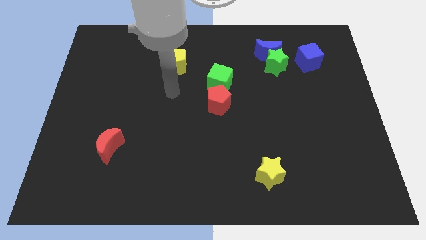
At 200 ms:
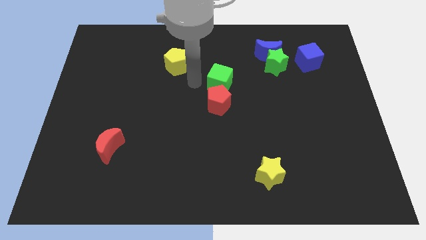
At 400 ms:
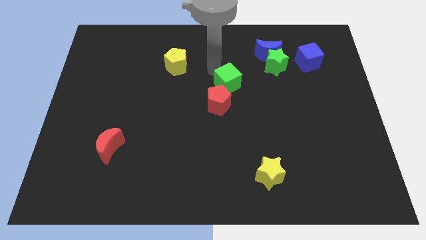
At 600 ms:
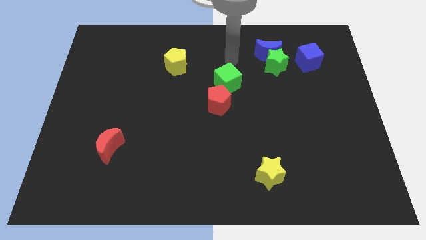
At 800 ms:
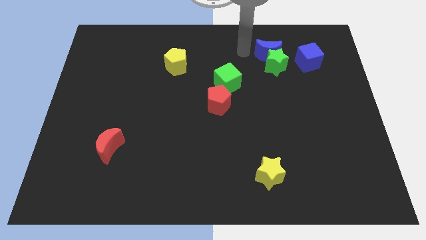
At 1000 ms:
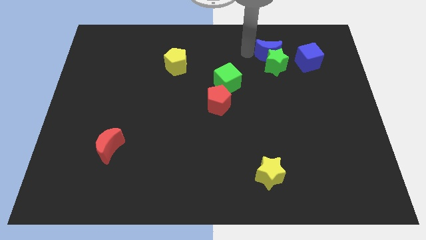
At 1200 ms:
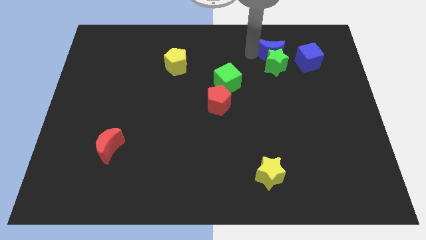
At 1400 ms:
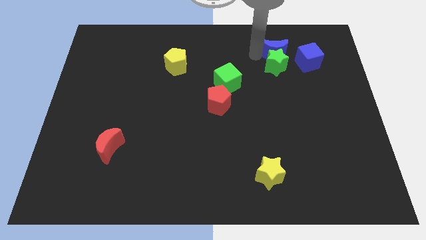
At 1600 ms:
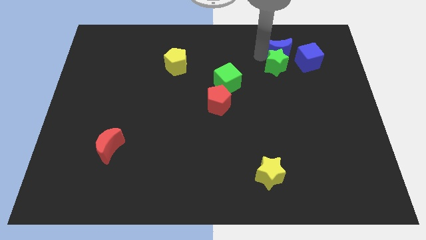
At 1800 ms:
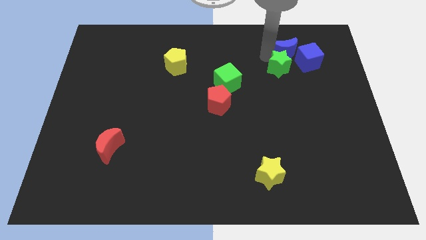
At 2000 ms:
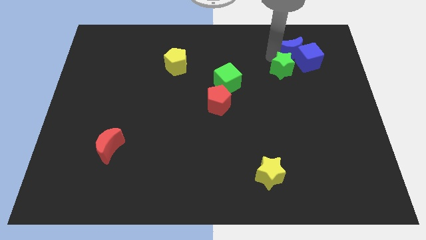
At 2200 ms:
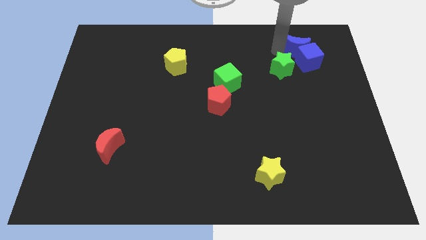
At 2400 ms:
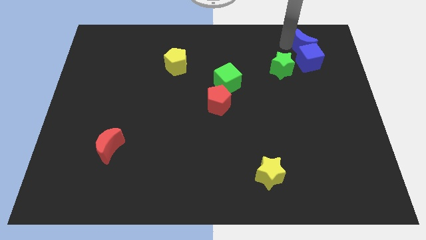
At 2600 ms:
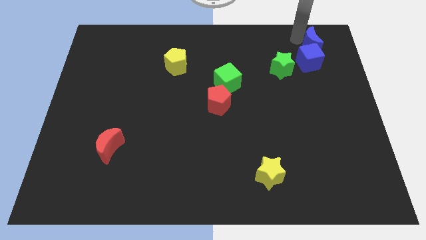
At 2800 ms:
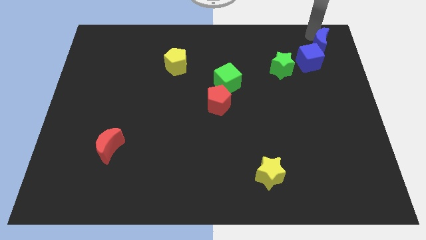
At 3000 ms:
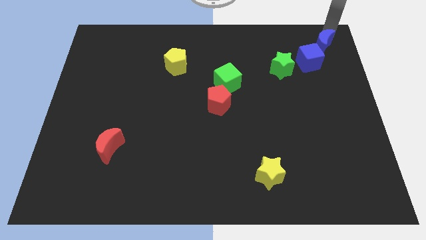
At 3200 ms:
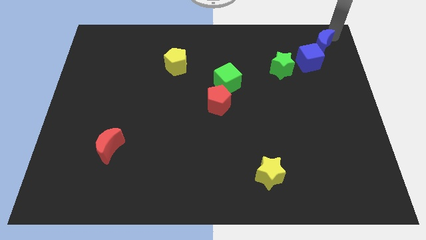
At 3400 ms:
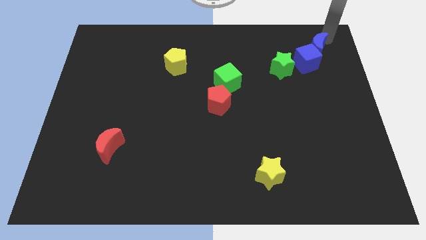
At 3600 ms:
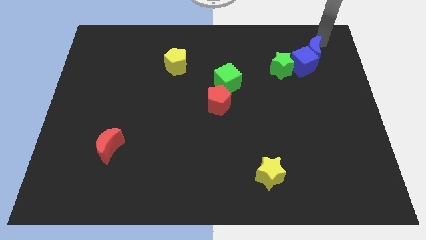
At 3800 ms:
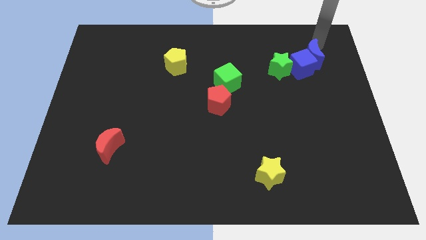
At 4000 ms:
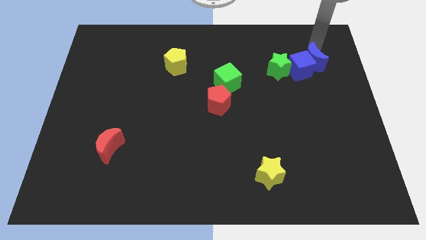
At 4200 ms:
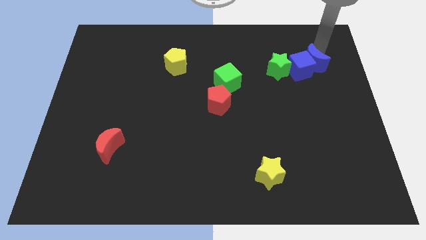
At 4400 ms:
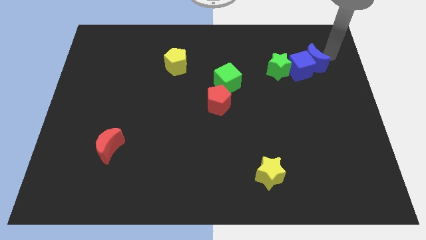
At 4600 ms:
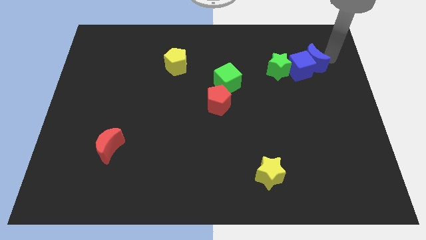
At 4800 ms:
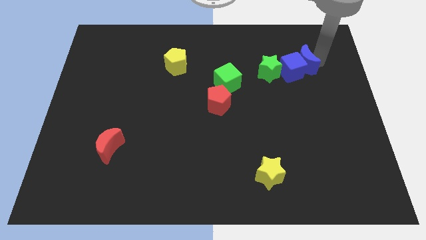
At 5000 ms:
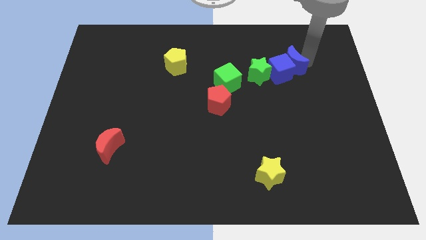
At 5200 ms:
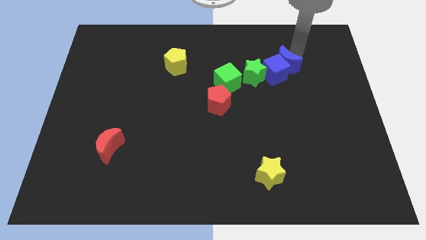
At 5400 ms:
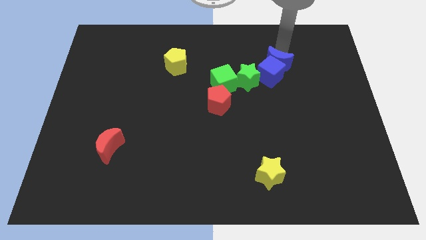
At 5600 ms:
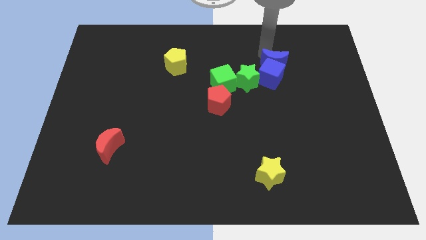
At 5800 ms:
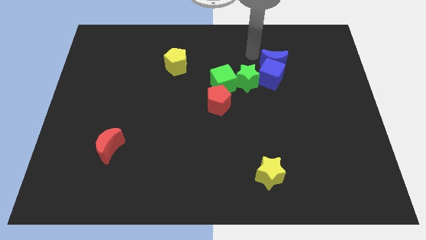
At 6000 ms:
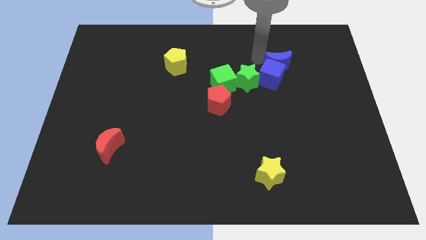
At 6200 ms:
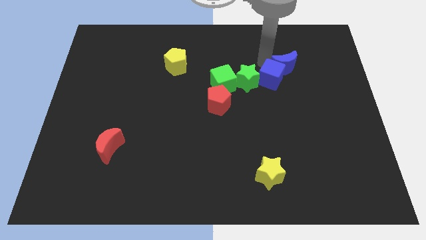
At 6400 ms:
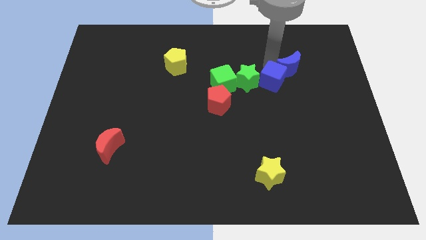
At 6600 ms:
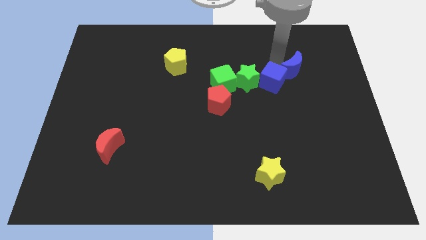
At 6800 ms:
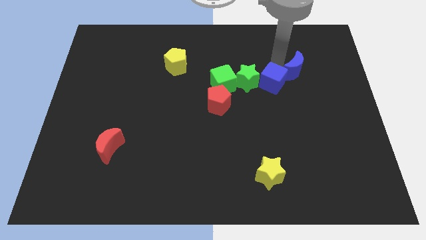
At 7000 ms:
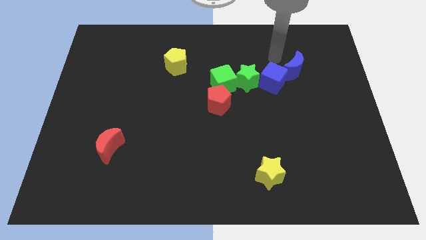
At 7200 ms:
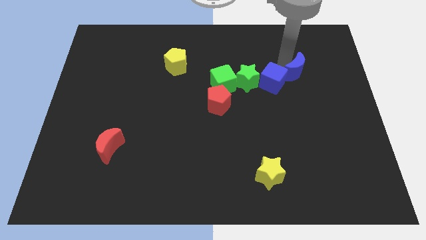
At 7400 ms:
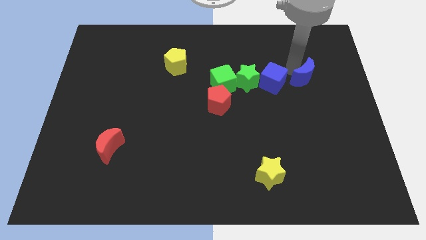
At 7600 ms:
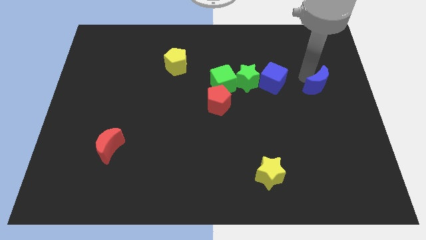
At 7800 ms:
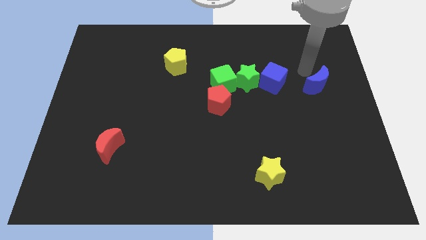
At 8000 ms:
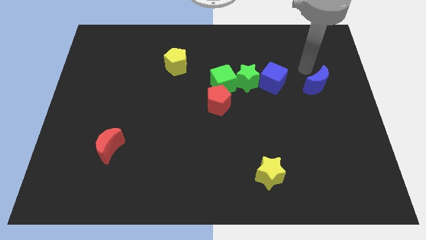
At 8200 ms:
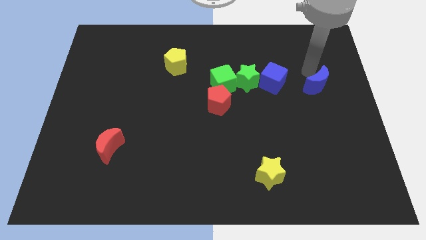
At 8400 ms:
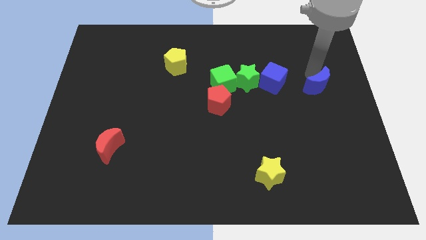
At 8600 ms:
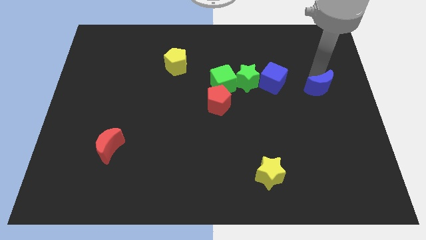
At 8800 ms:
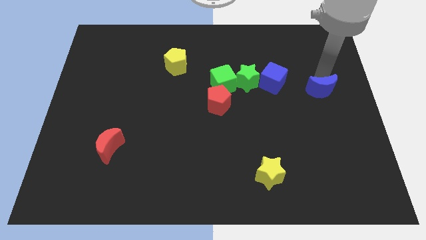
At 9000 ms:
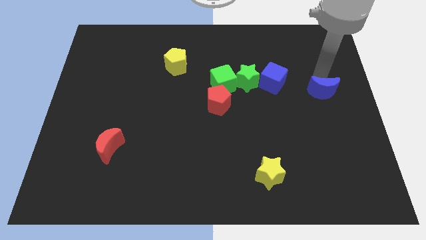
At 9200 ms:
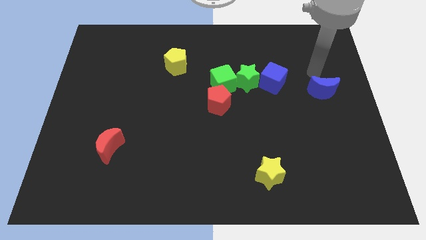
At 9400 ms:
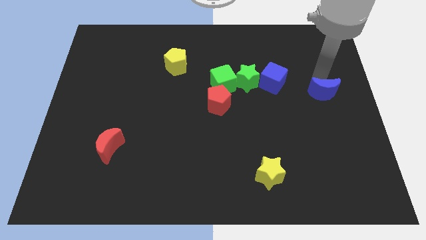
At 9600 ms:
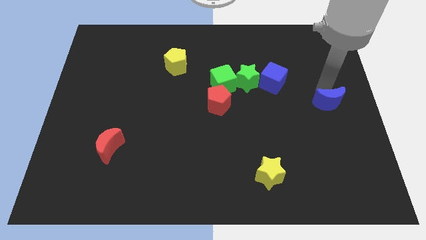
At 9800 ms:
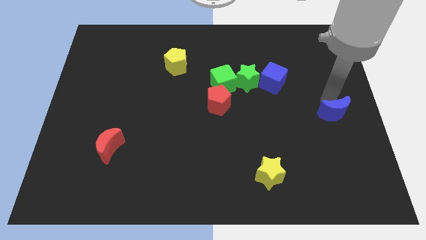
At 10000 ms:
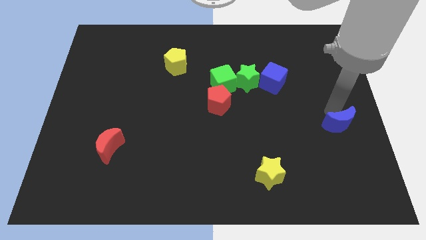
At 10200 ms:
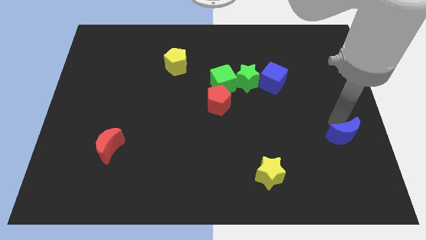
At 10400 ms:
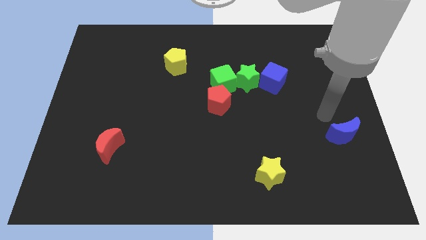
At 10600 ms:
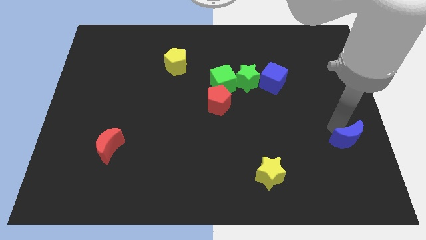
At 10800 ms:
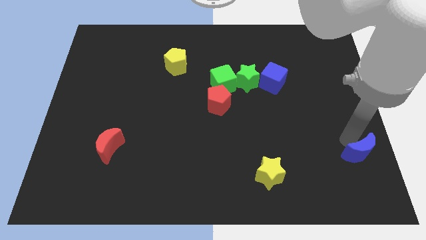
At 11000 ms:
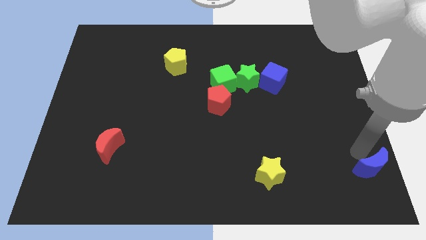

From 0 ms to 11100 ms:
put the blue moon to the lower right corner

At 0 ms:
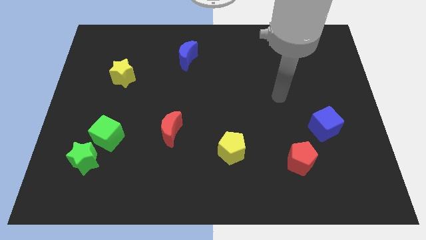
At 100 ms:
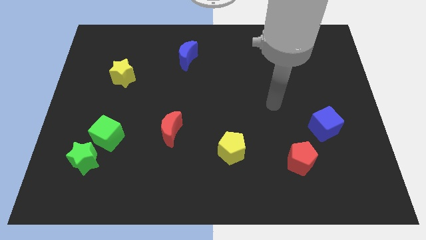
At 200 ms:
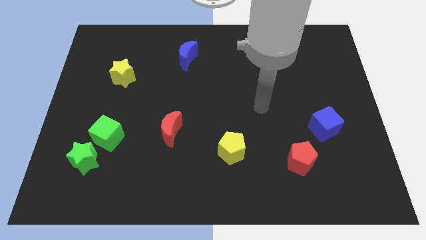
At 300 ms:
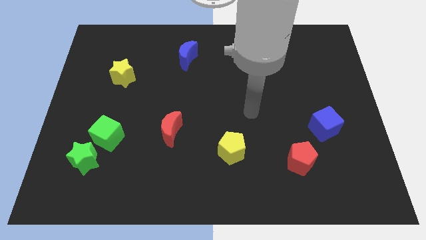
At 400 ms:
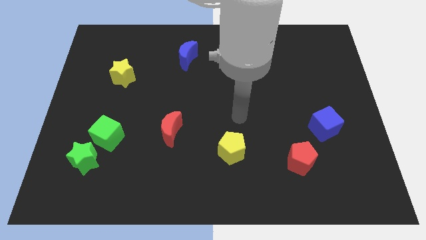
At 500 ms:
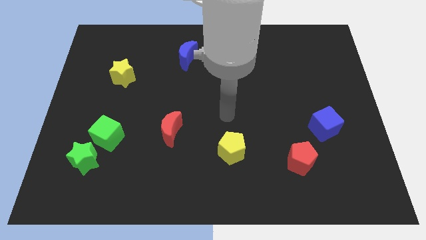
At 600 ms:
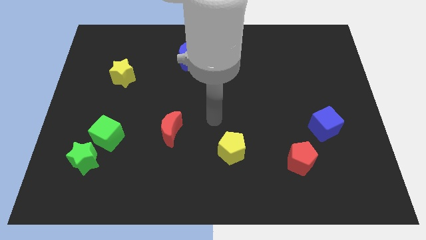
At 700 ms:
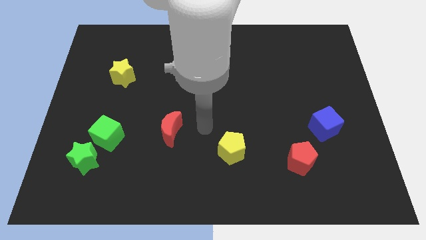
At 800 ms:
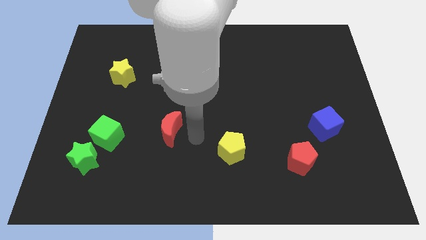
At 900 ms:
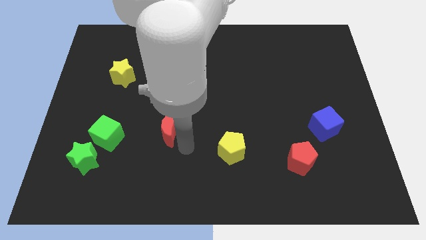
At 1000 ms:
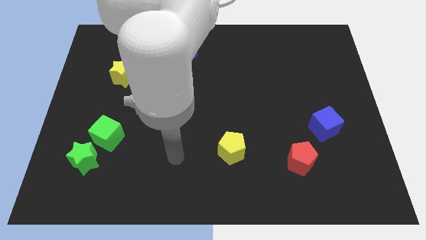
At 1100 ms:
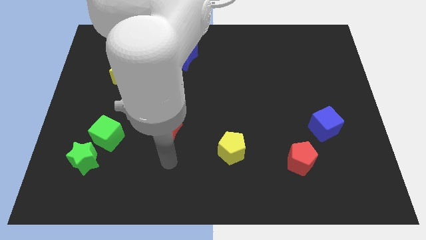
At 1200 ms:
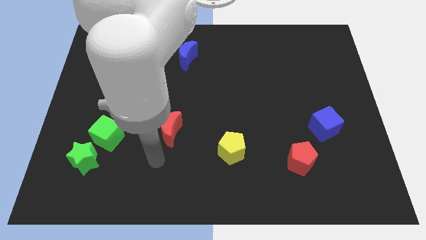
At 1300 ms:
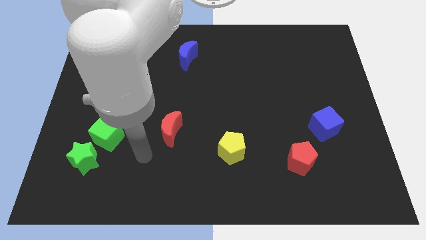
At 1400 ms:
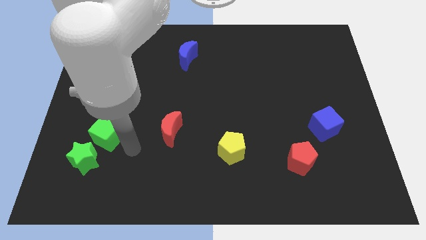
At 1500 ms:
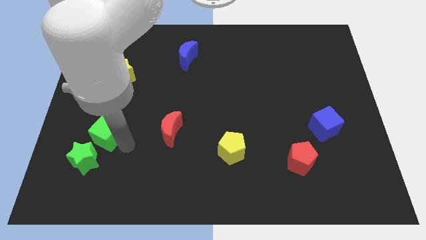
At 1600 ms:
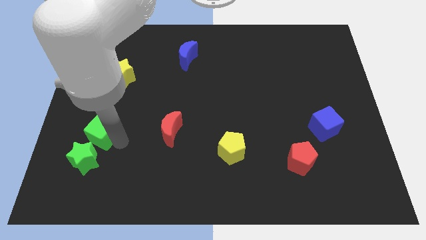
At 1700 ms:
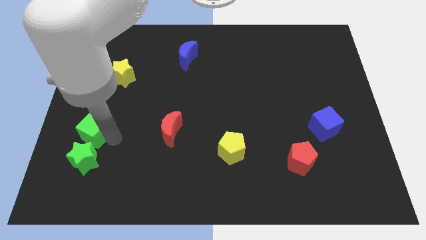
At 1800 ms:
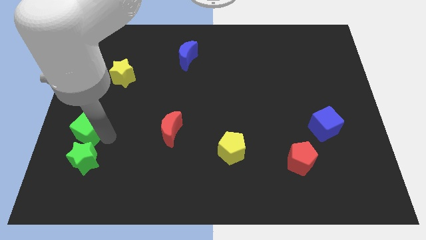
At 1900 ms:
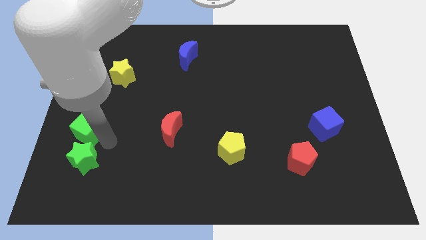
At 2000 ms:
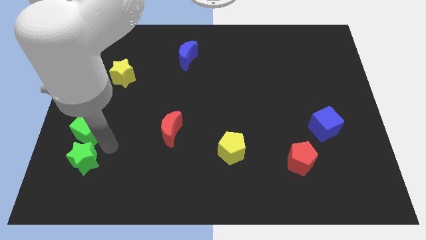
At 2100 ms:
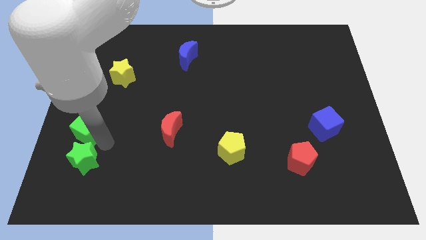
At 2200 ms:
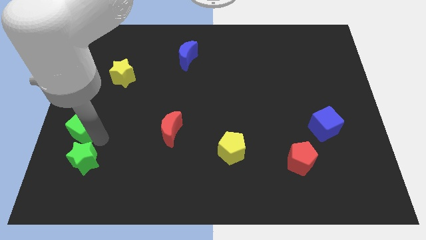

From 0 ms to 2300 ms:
put the green cube to the center left
